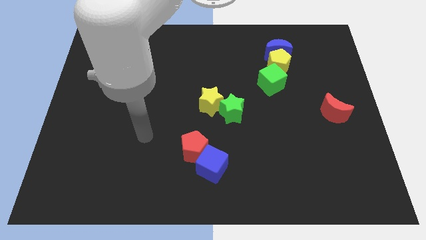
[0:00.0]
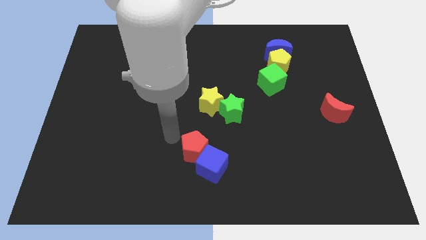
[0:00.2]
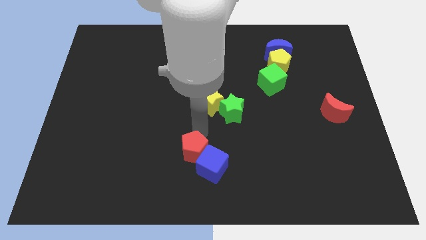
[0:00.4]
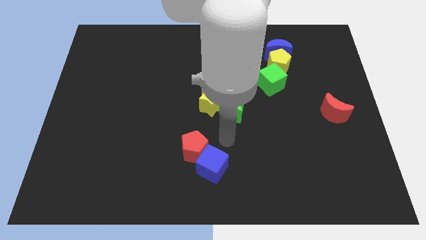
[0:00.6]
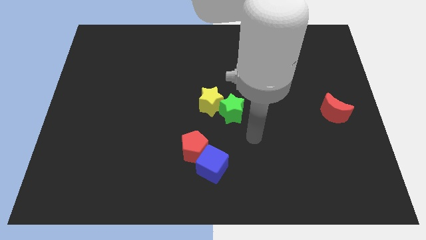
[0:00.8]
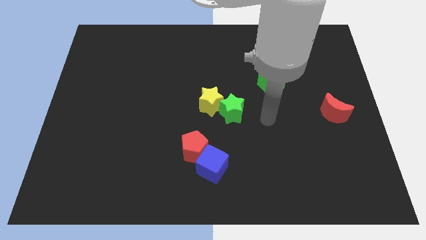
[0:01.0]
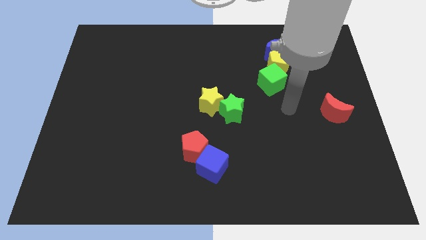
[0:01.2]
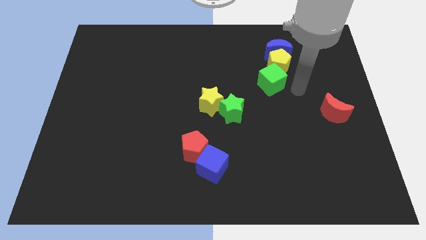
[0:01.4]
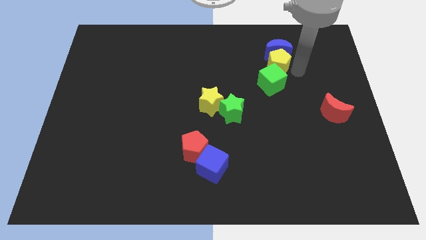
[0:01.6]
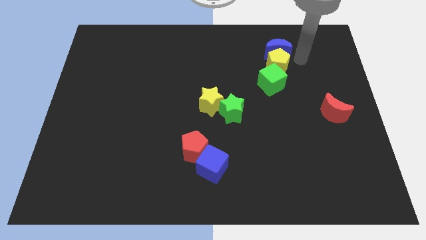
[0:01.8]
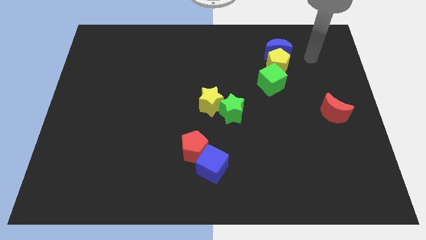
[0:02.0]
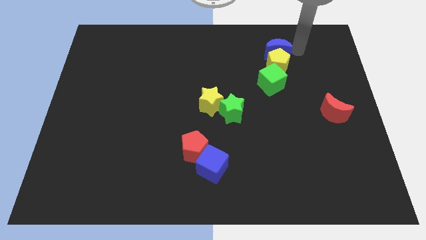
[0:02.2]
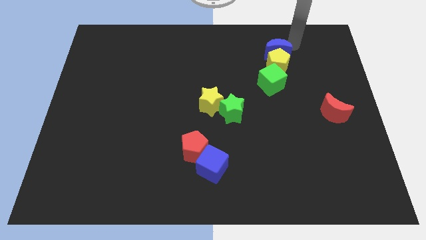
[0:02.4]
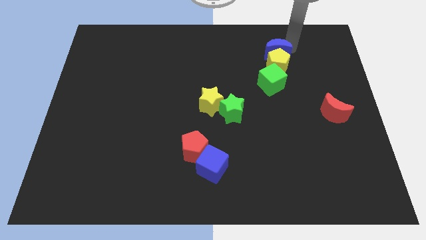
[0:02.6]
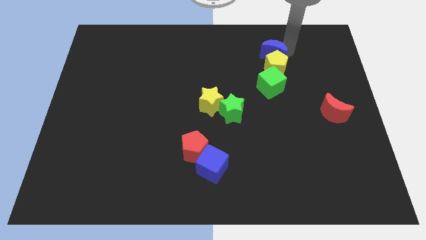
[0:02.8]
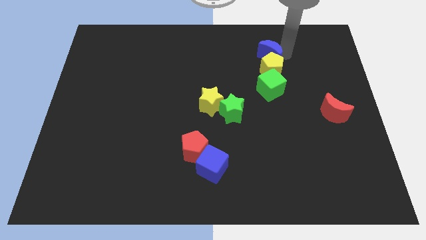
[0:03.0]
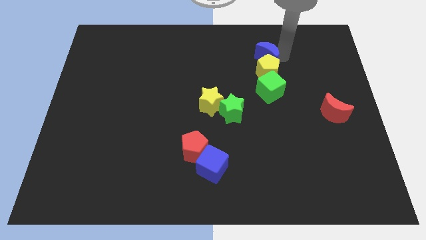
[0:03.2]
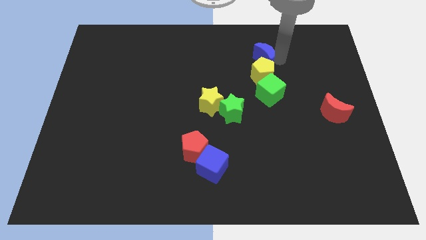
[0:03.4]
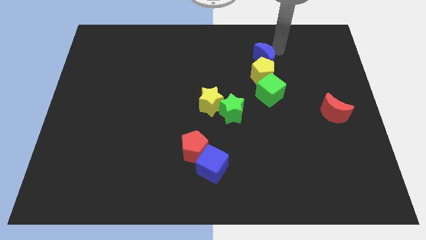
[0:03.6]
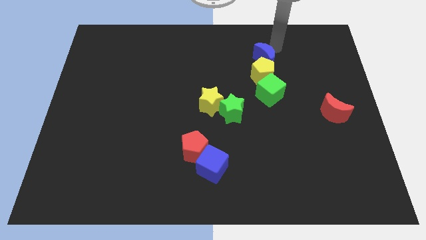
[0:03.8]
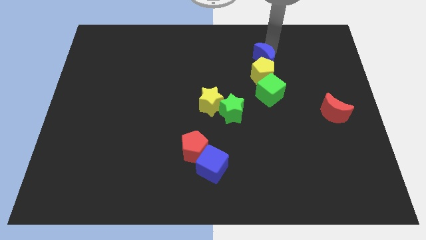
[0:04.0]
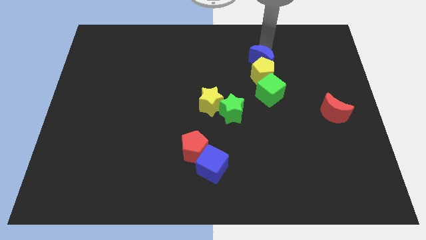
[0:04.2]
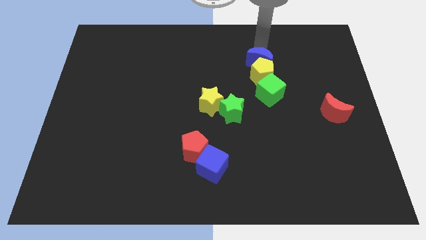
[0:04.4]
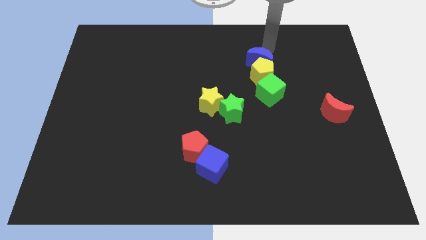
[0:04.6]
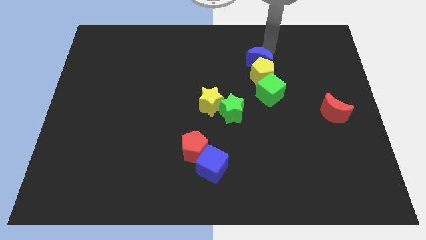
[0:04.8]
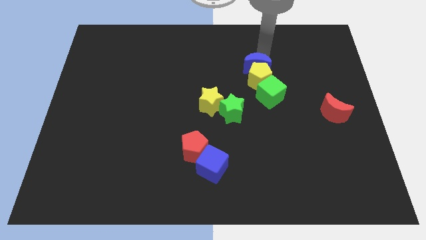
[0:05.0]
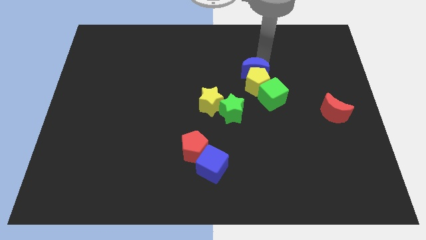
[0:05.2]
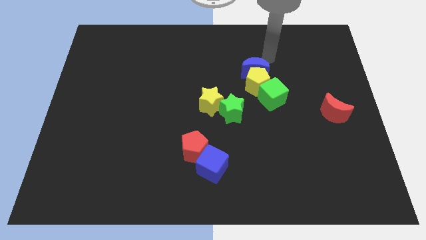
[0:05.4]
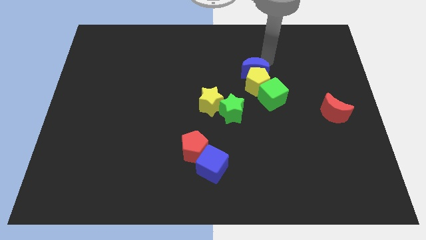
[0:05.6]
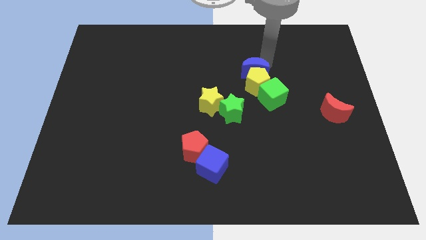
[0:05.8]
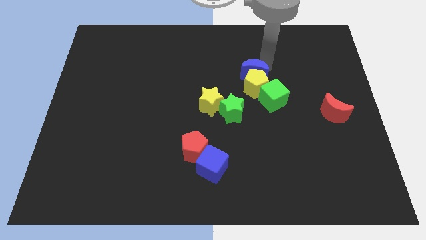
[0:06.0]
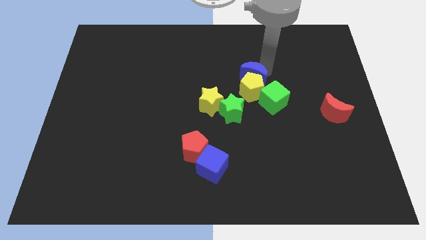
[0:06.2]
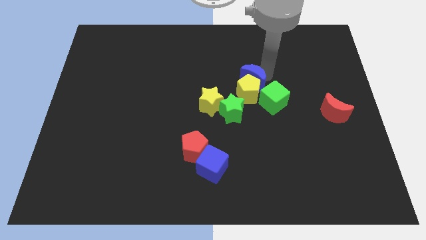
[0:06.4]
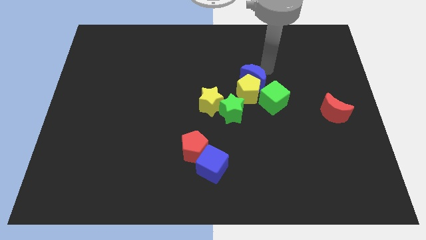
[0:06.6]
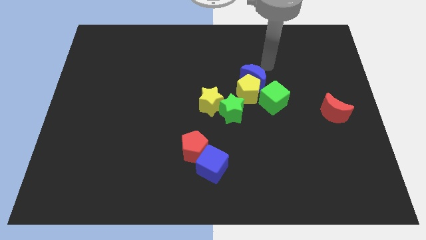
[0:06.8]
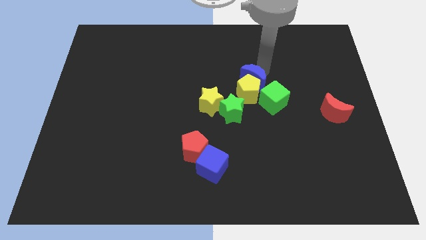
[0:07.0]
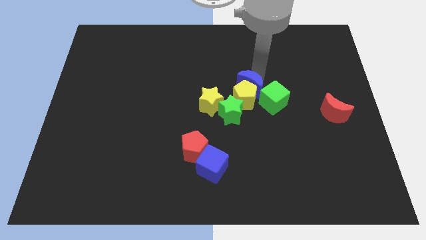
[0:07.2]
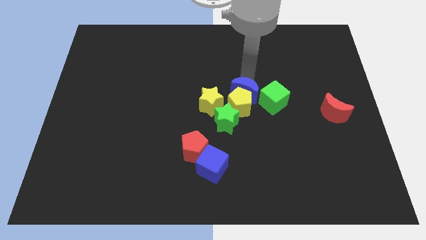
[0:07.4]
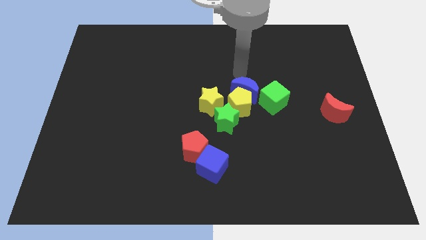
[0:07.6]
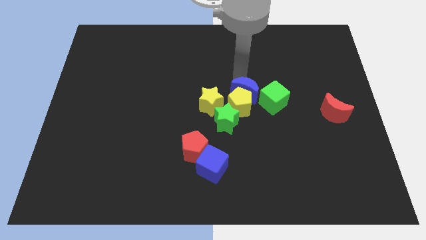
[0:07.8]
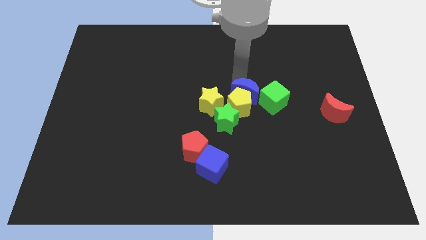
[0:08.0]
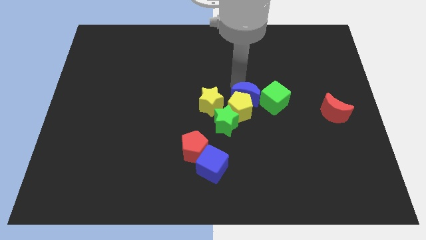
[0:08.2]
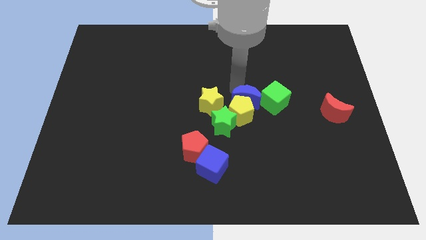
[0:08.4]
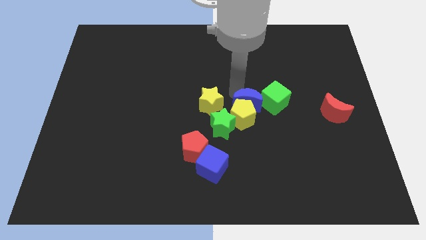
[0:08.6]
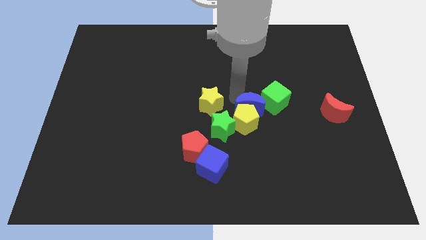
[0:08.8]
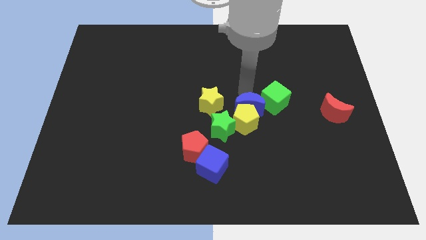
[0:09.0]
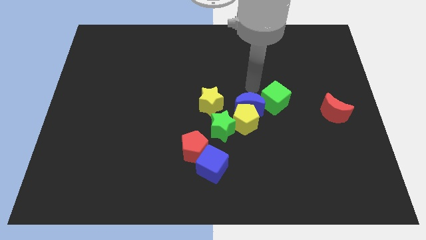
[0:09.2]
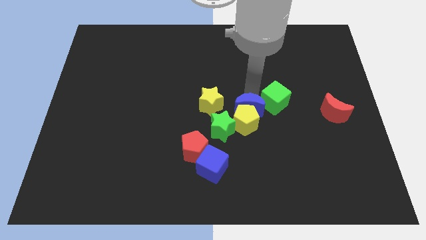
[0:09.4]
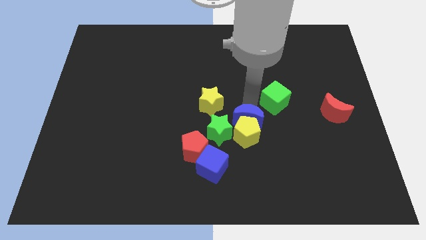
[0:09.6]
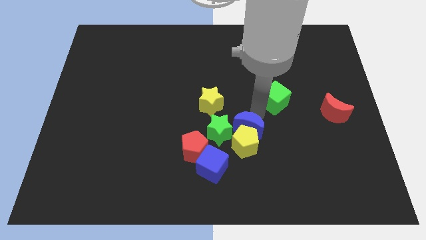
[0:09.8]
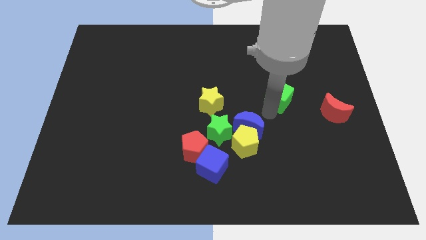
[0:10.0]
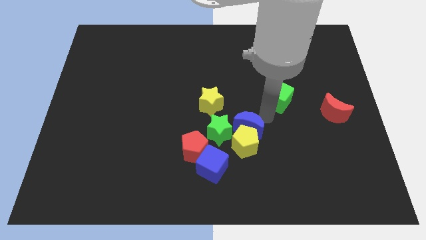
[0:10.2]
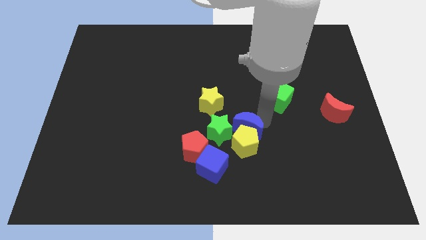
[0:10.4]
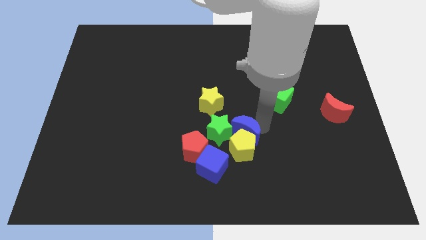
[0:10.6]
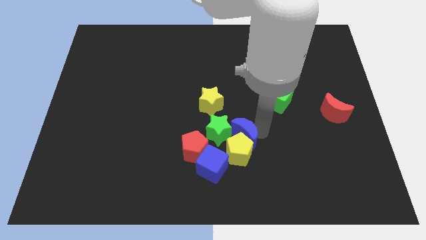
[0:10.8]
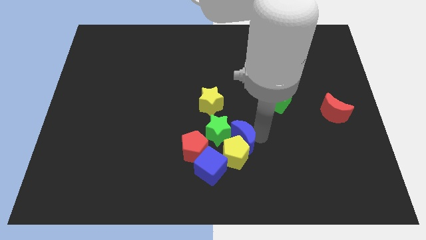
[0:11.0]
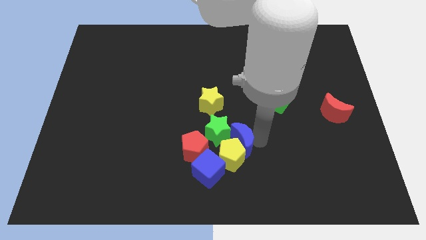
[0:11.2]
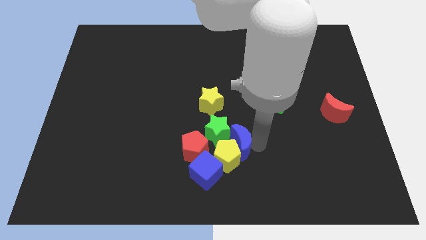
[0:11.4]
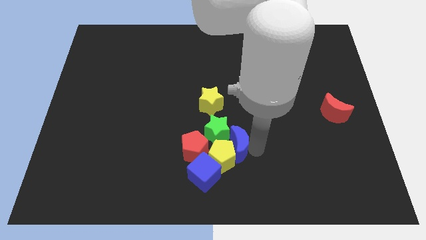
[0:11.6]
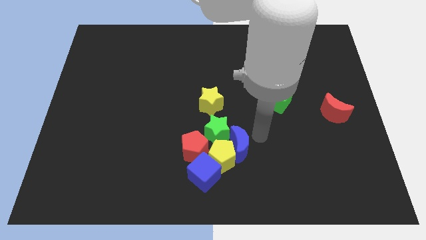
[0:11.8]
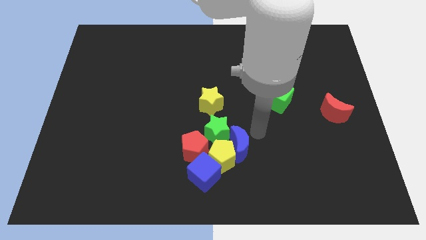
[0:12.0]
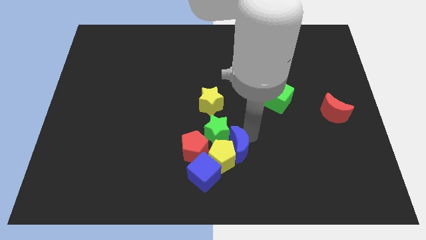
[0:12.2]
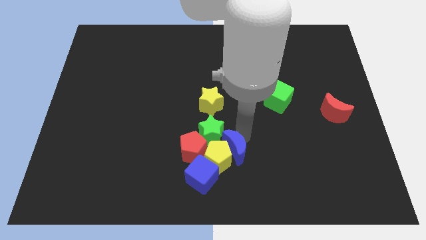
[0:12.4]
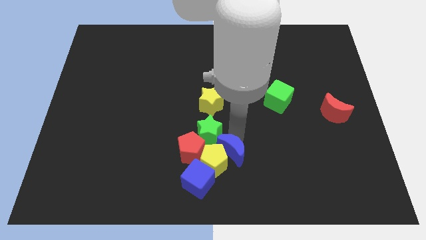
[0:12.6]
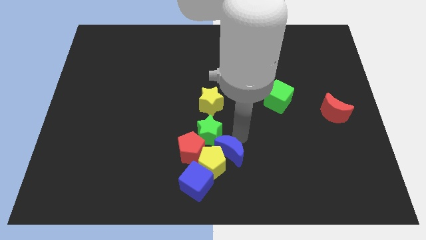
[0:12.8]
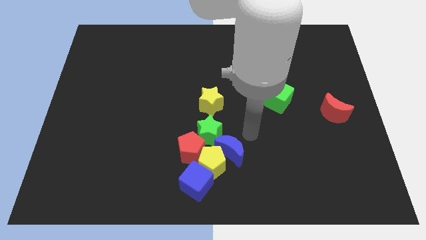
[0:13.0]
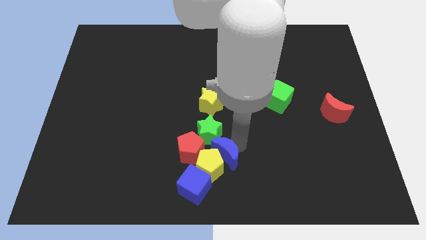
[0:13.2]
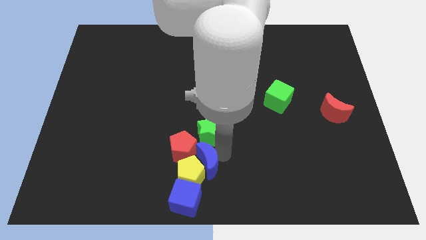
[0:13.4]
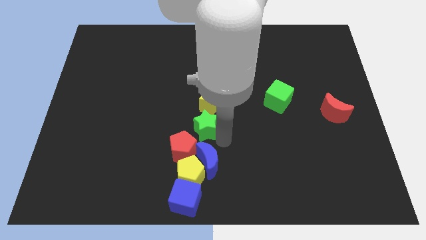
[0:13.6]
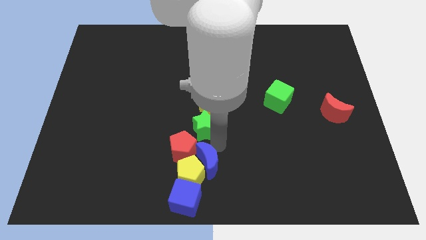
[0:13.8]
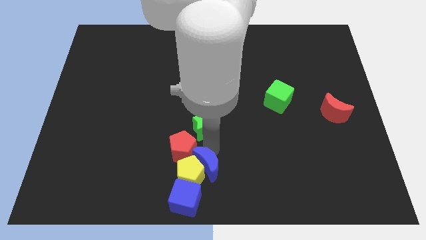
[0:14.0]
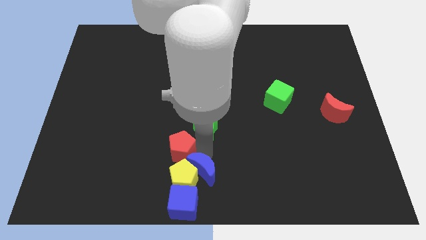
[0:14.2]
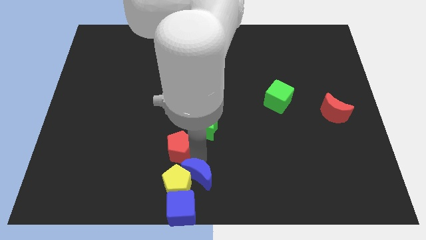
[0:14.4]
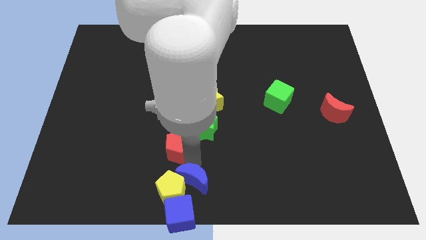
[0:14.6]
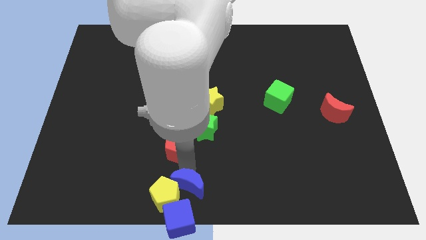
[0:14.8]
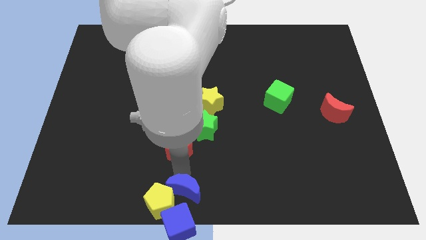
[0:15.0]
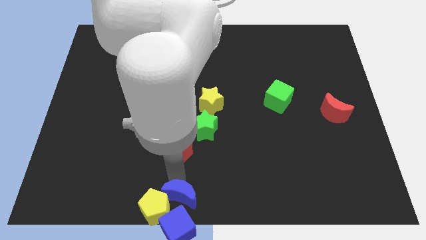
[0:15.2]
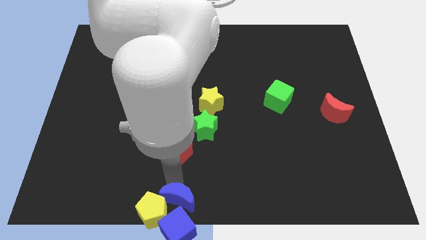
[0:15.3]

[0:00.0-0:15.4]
put the blue moon towards the blue cube
